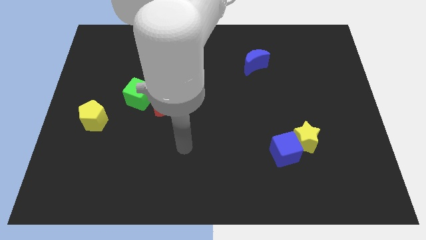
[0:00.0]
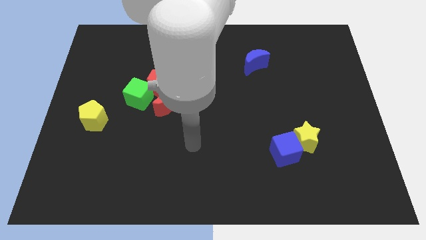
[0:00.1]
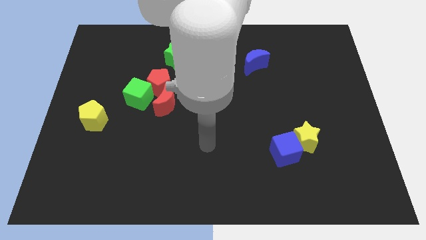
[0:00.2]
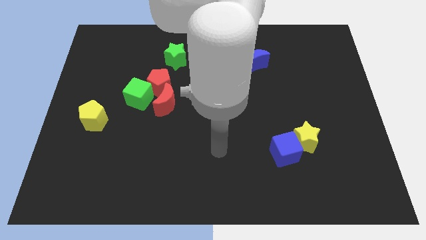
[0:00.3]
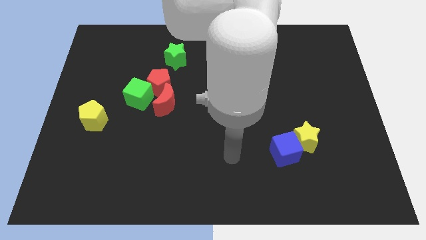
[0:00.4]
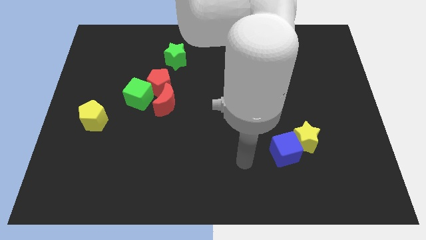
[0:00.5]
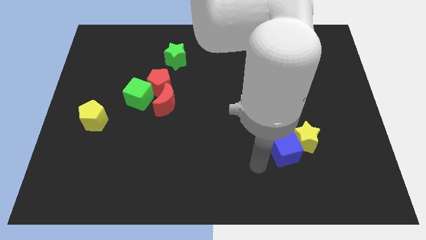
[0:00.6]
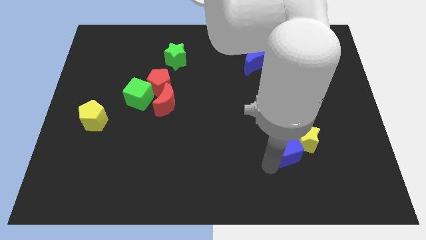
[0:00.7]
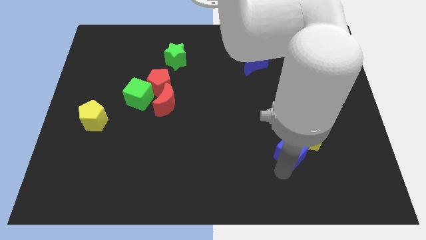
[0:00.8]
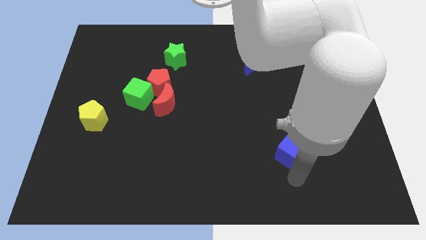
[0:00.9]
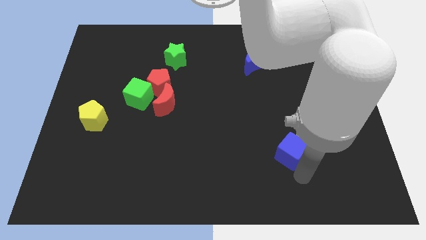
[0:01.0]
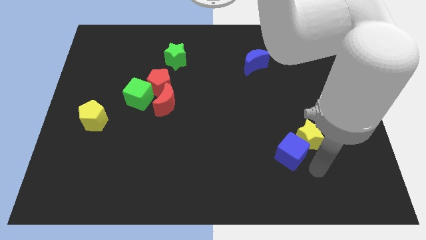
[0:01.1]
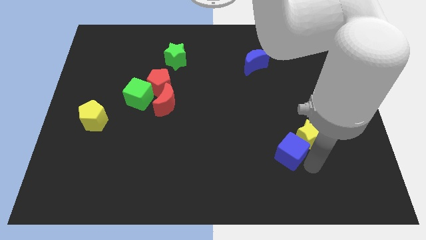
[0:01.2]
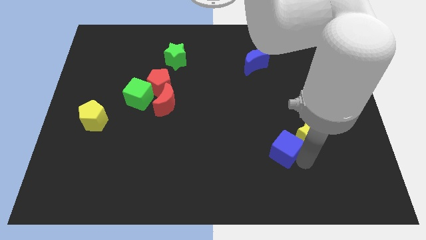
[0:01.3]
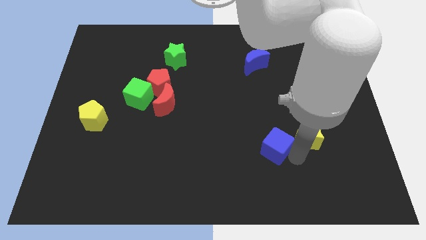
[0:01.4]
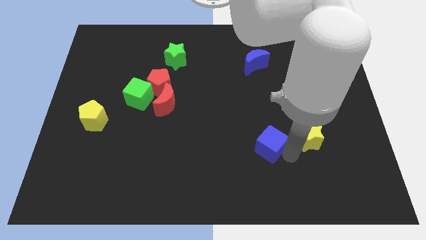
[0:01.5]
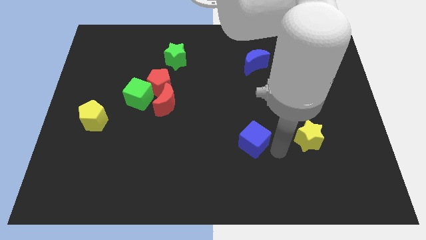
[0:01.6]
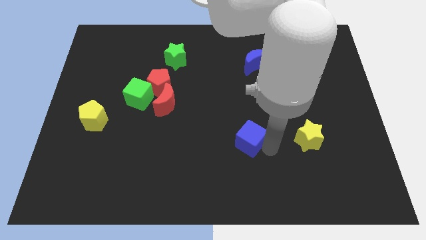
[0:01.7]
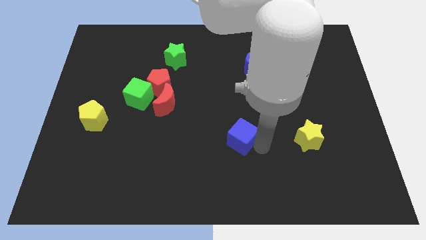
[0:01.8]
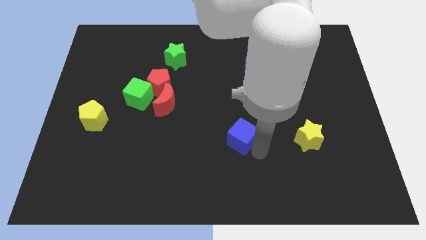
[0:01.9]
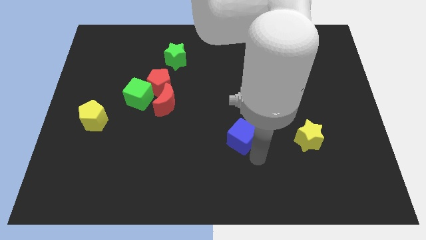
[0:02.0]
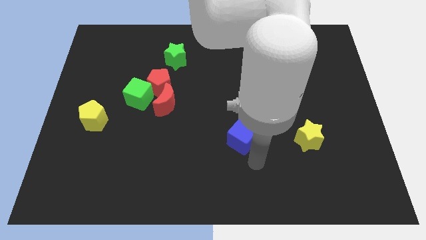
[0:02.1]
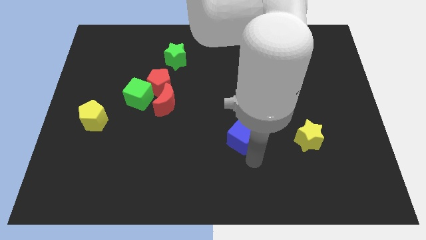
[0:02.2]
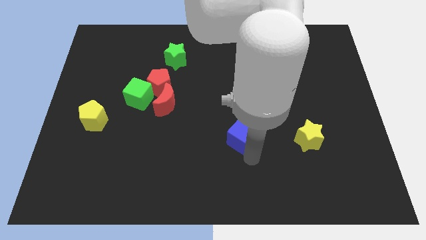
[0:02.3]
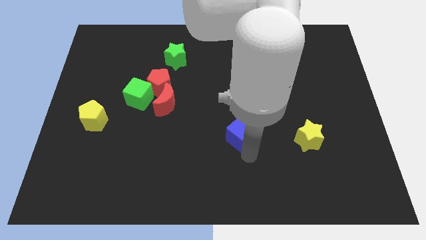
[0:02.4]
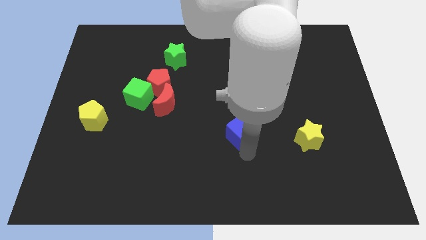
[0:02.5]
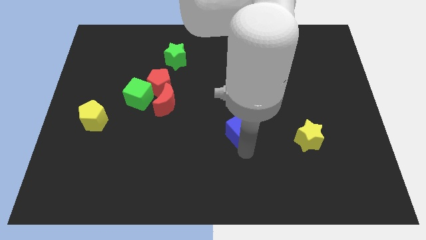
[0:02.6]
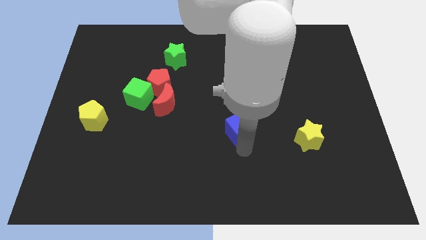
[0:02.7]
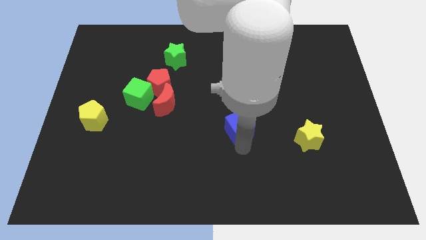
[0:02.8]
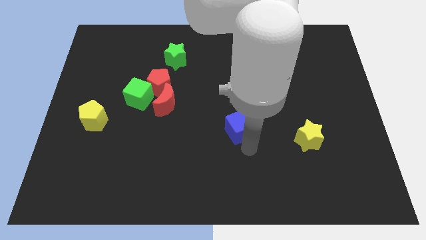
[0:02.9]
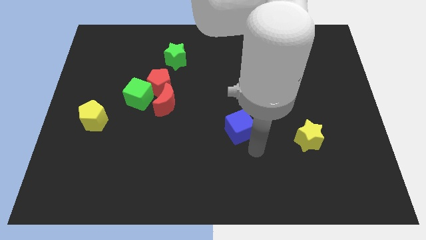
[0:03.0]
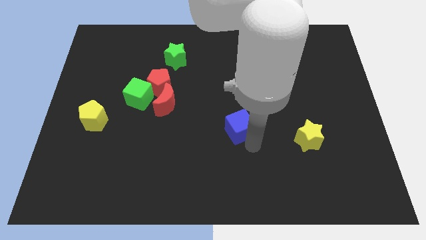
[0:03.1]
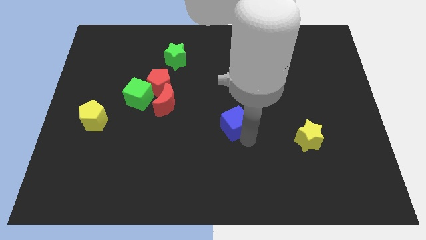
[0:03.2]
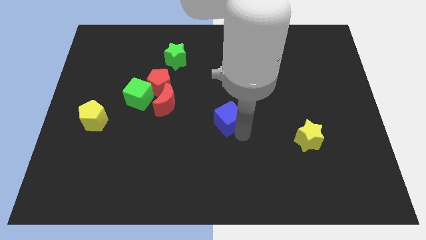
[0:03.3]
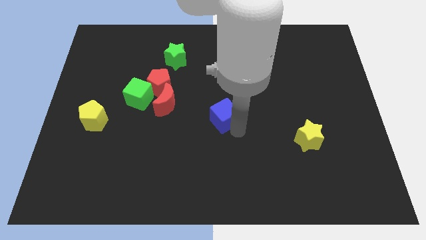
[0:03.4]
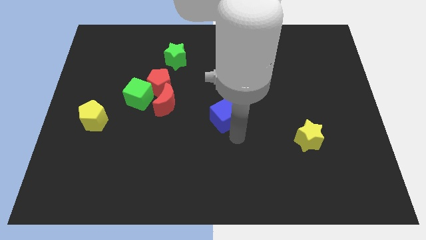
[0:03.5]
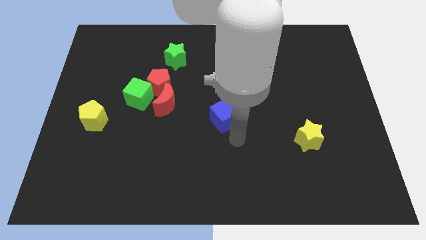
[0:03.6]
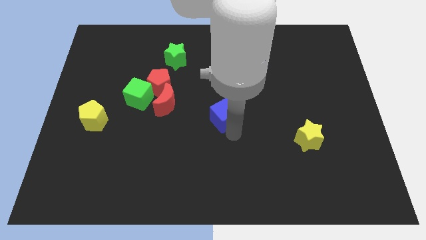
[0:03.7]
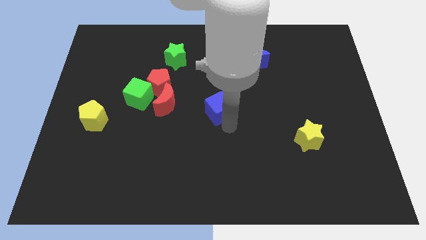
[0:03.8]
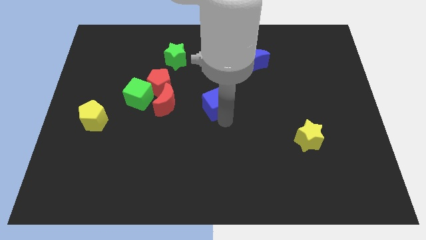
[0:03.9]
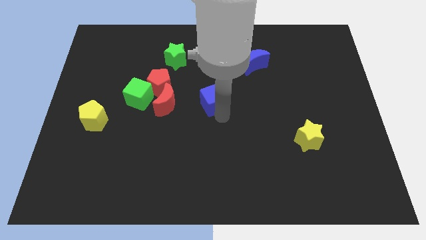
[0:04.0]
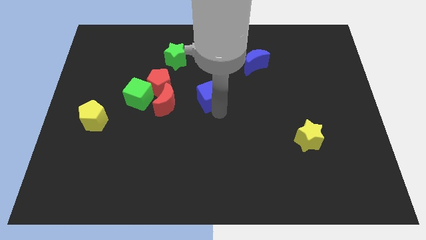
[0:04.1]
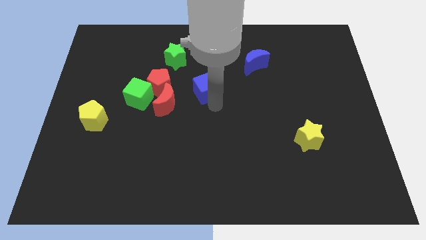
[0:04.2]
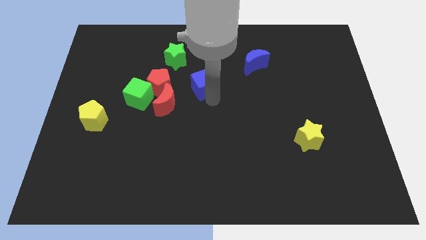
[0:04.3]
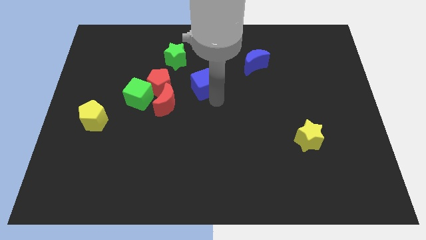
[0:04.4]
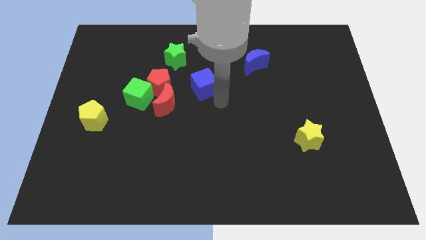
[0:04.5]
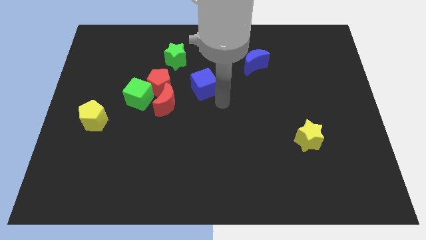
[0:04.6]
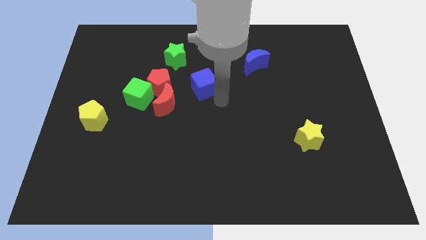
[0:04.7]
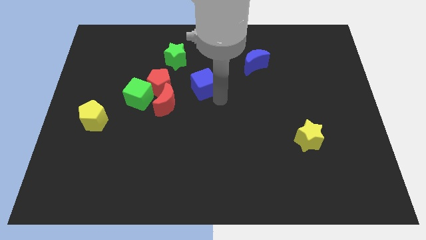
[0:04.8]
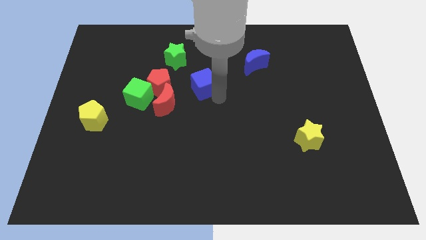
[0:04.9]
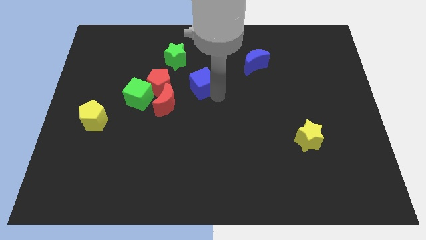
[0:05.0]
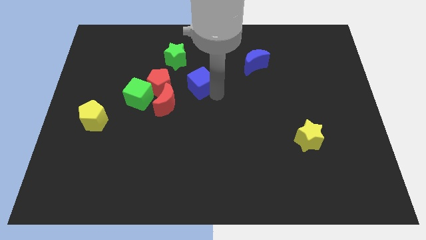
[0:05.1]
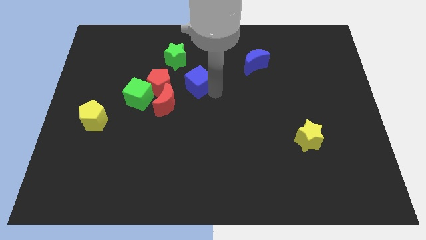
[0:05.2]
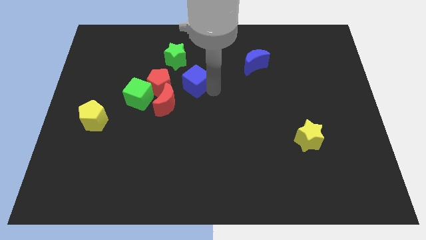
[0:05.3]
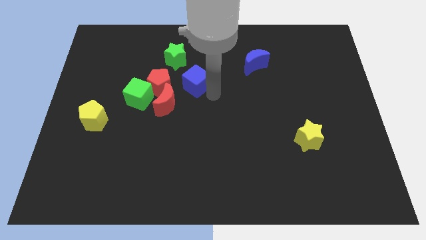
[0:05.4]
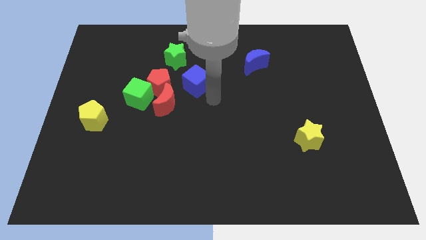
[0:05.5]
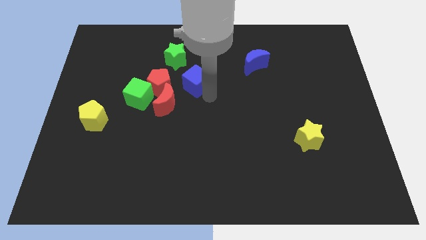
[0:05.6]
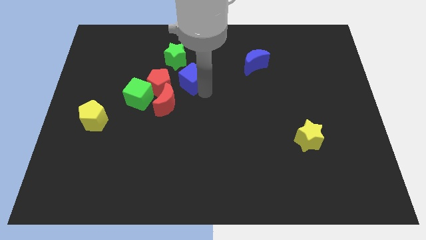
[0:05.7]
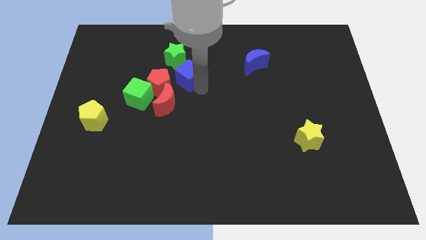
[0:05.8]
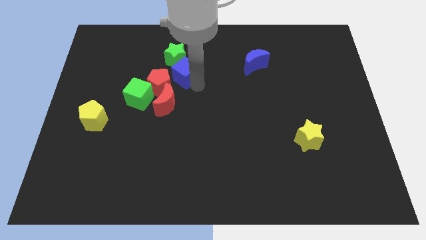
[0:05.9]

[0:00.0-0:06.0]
push the blue cube next to the green star

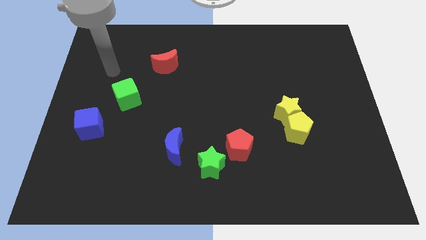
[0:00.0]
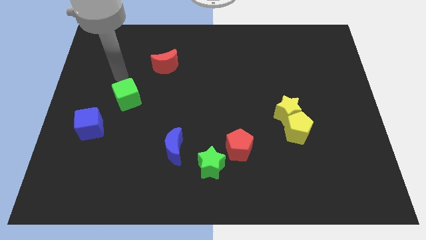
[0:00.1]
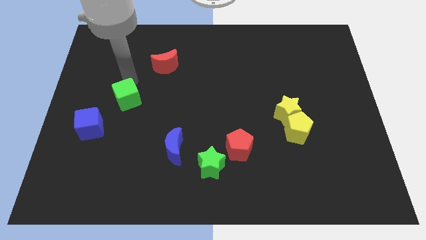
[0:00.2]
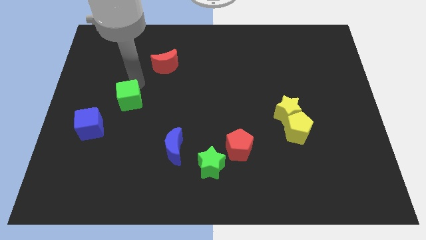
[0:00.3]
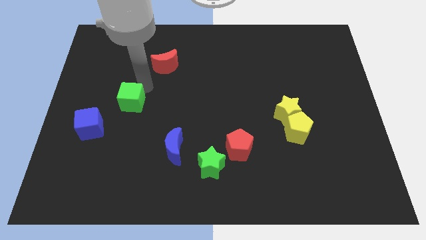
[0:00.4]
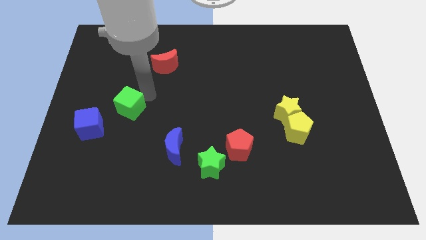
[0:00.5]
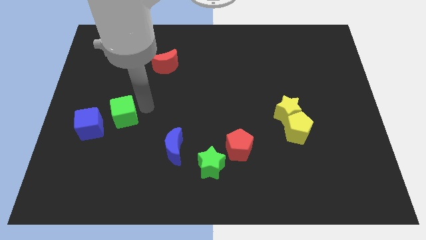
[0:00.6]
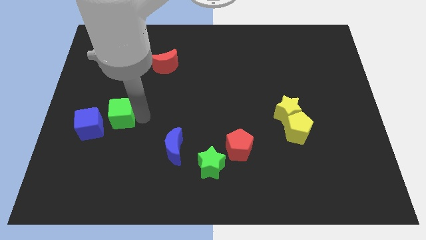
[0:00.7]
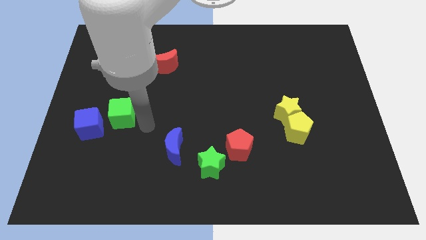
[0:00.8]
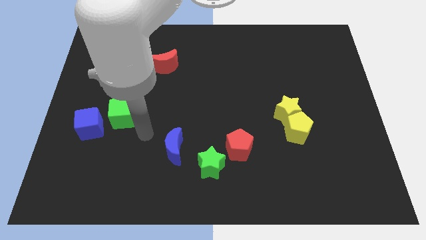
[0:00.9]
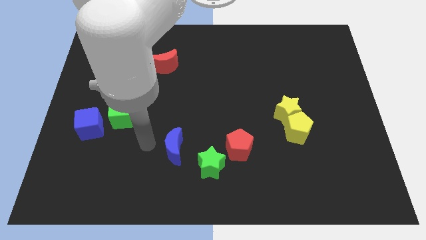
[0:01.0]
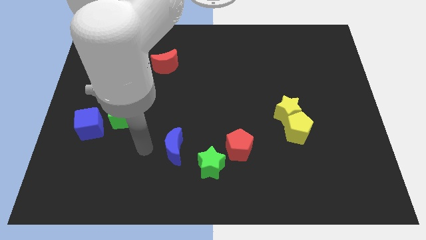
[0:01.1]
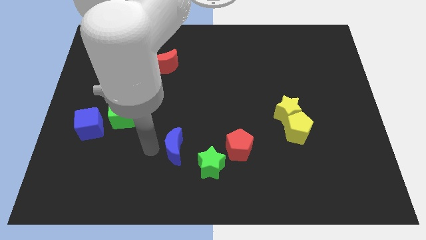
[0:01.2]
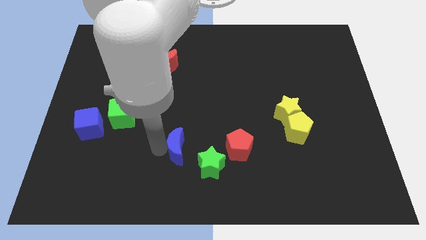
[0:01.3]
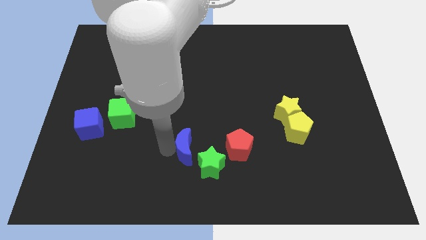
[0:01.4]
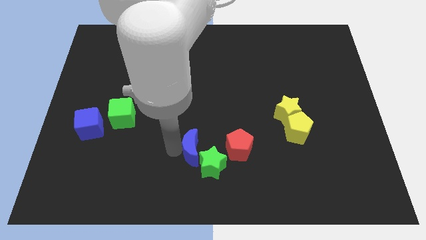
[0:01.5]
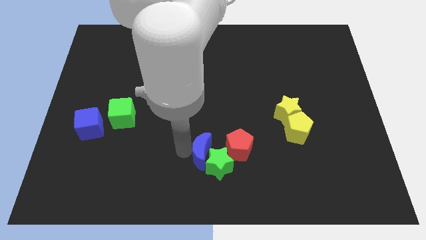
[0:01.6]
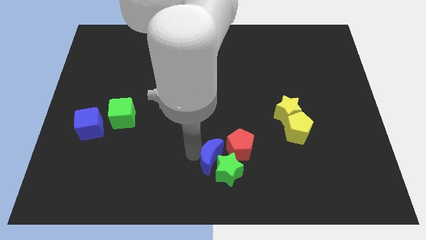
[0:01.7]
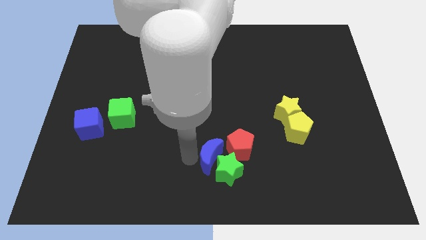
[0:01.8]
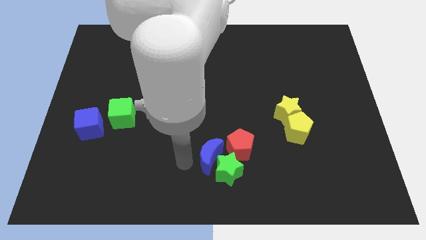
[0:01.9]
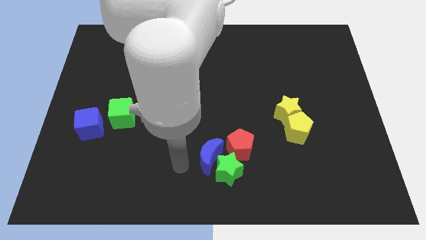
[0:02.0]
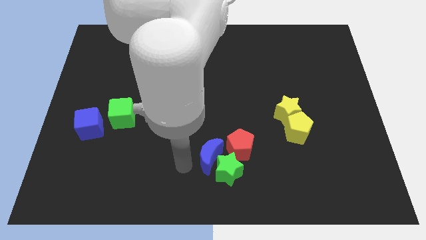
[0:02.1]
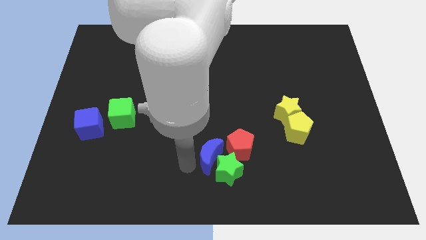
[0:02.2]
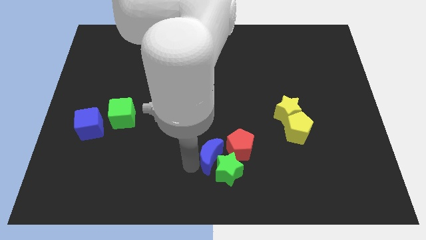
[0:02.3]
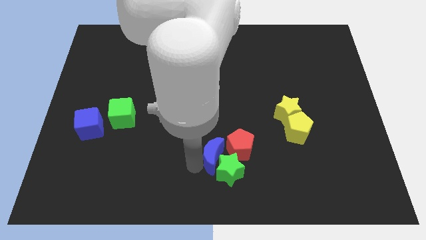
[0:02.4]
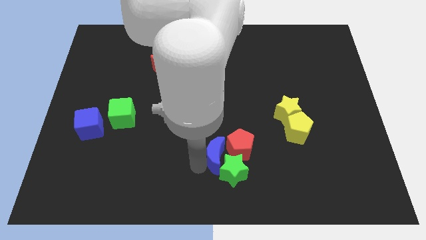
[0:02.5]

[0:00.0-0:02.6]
push the blue moon to the red pentagon

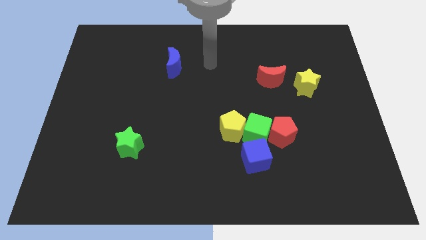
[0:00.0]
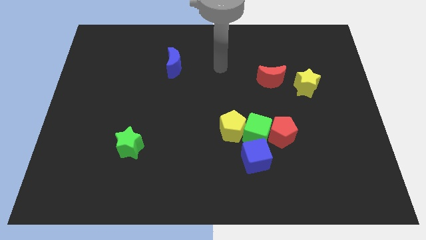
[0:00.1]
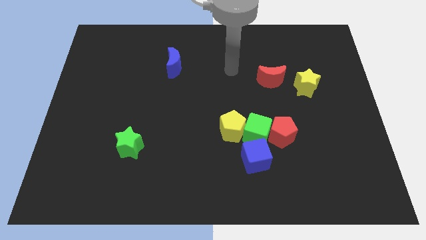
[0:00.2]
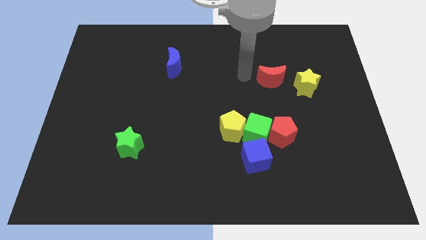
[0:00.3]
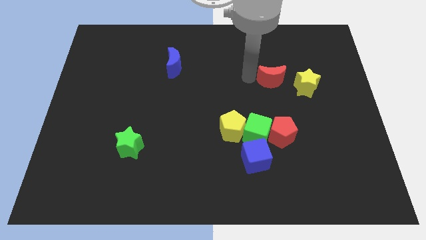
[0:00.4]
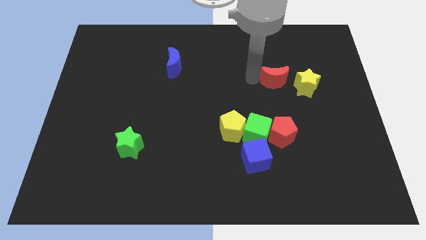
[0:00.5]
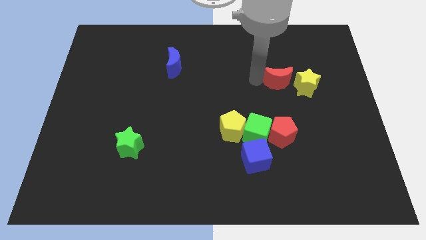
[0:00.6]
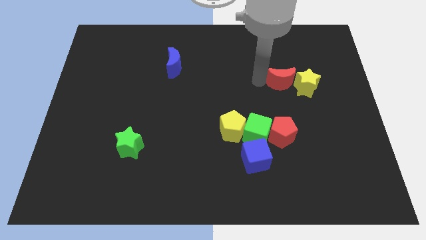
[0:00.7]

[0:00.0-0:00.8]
put the red moon towards the yellow star
